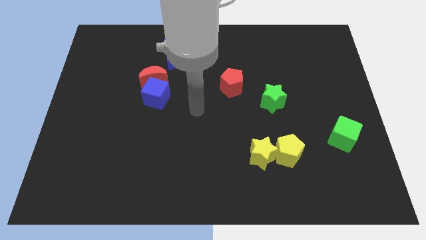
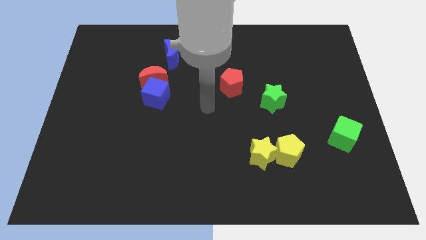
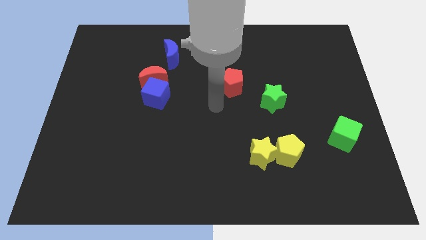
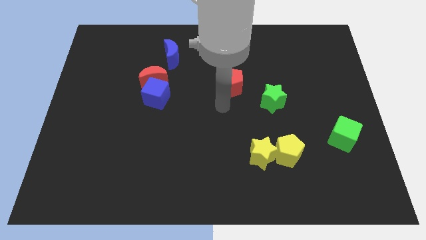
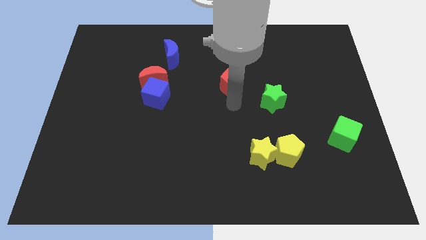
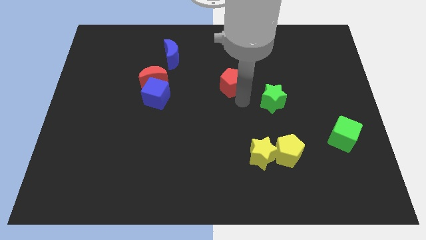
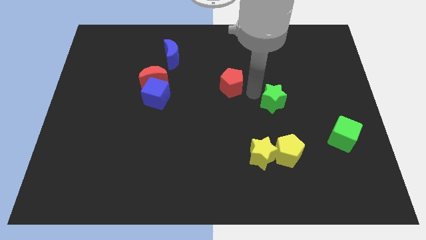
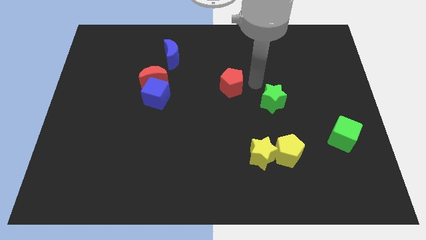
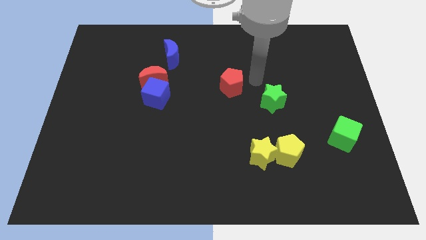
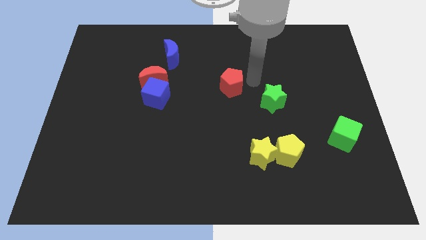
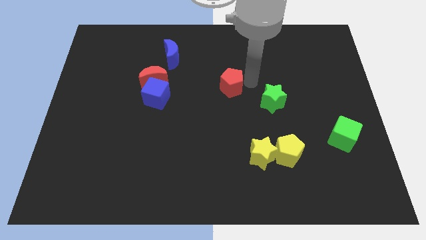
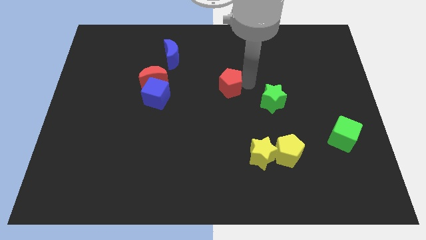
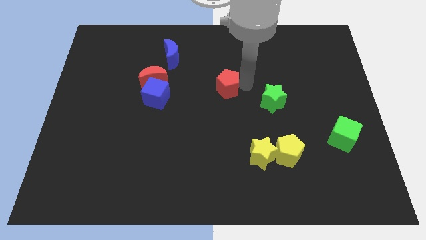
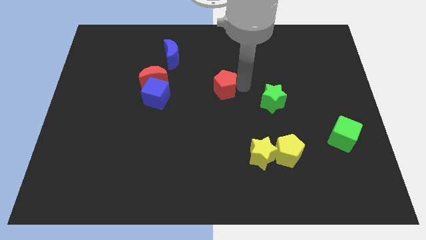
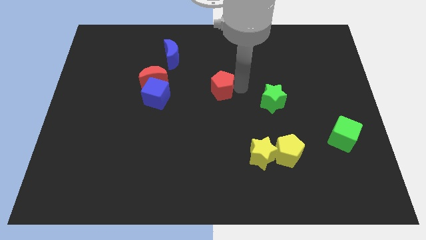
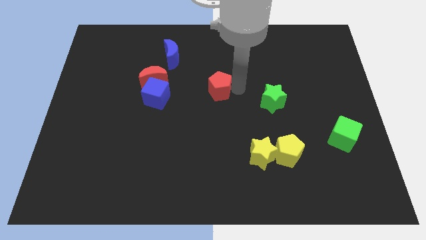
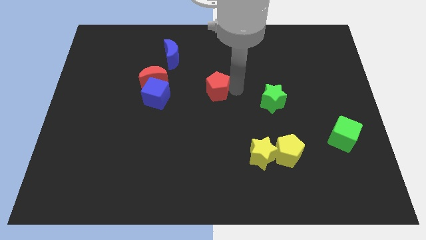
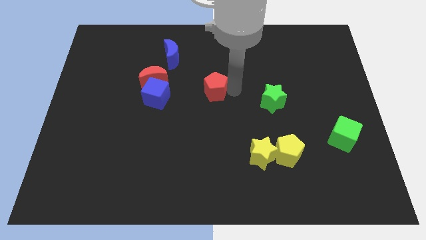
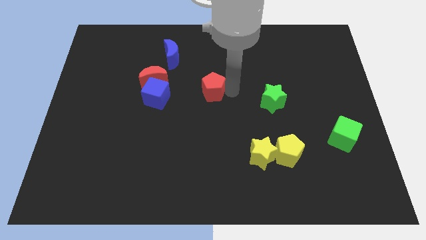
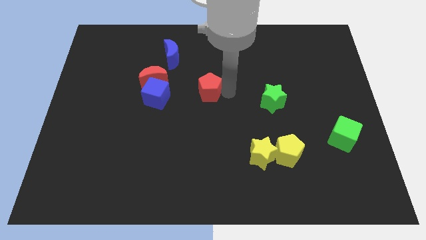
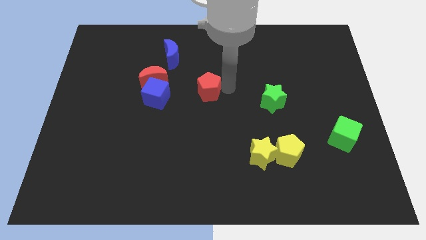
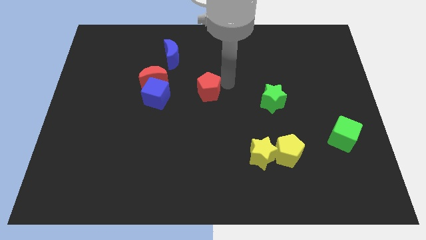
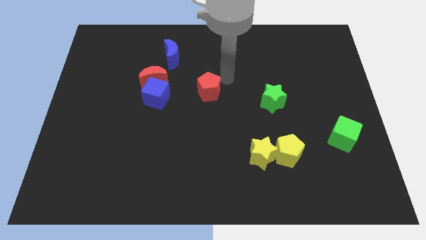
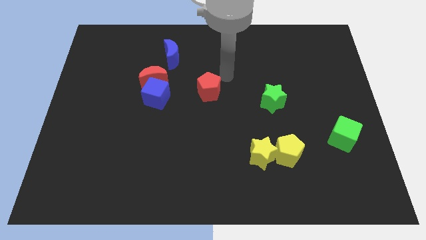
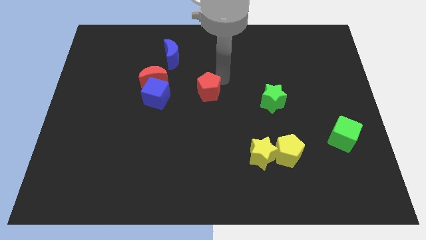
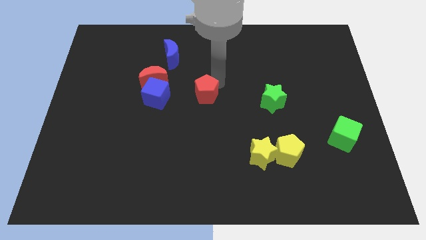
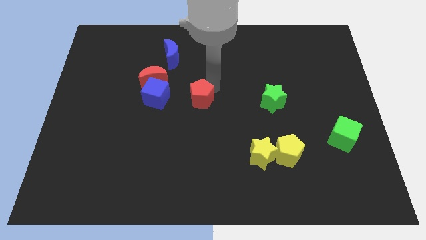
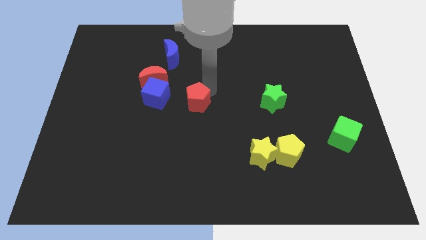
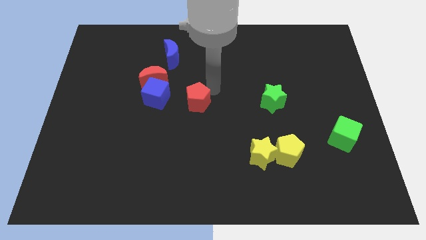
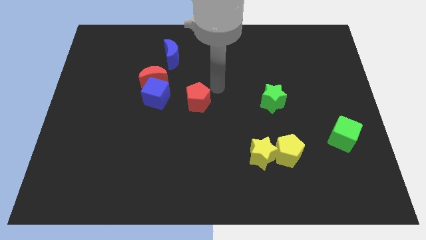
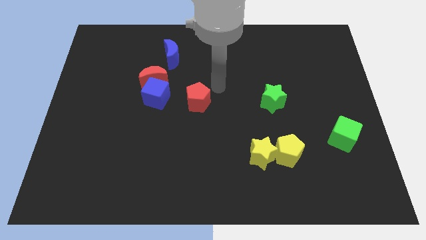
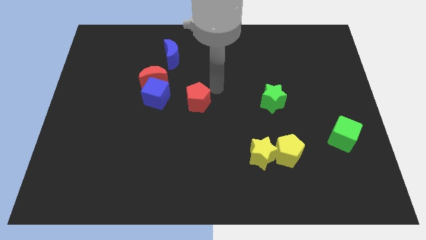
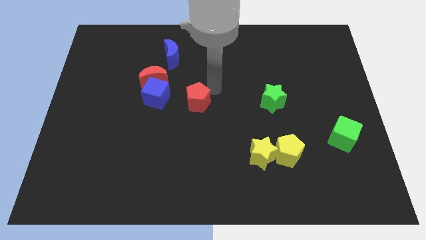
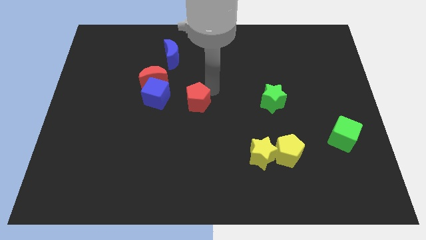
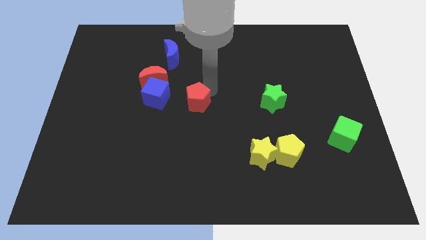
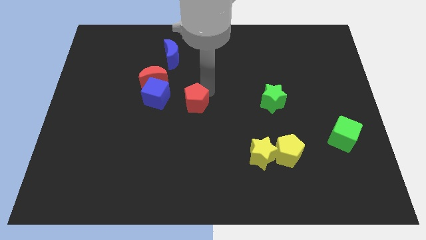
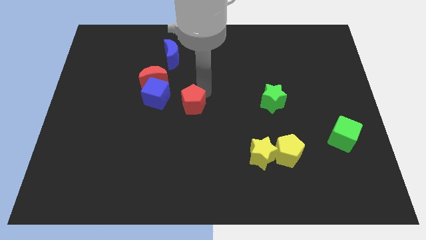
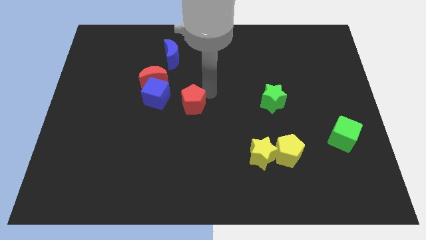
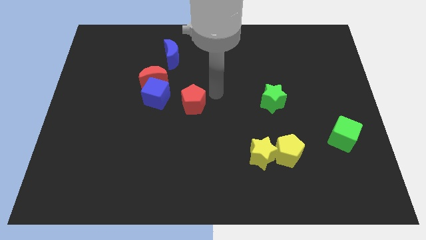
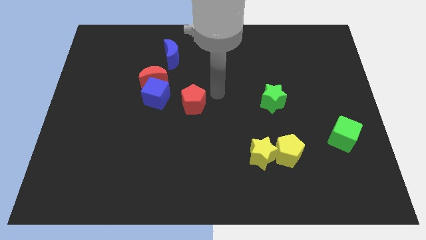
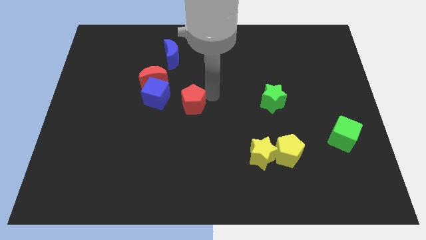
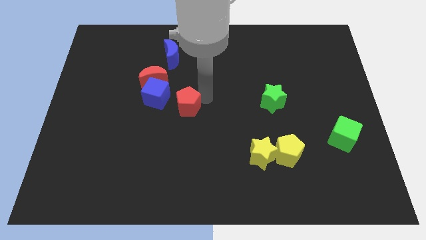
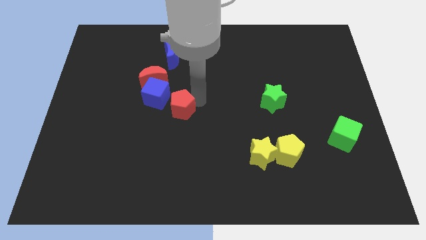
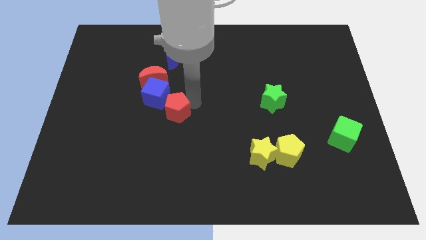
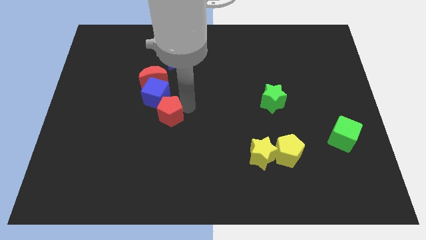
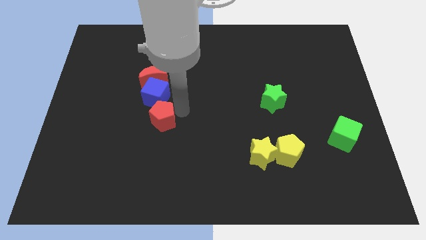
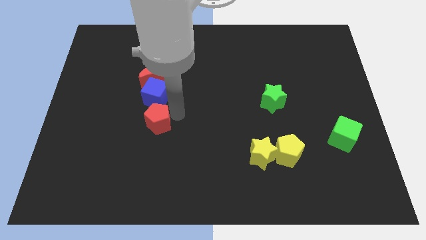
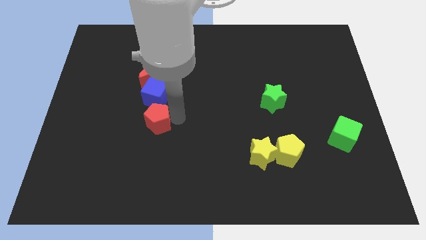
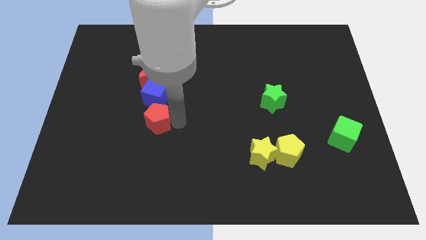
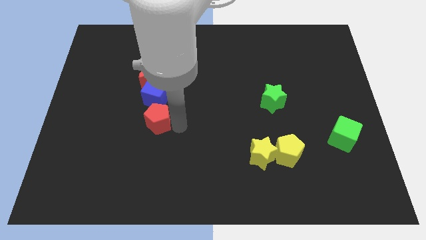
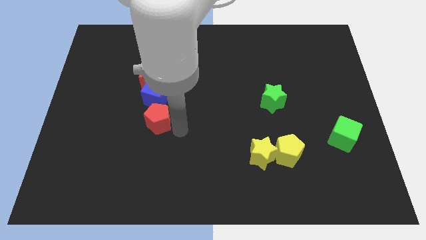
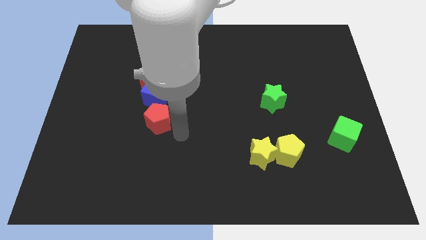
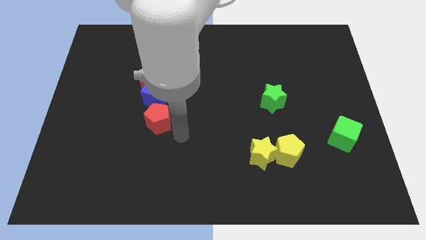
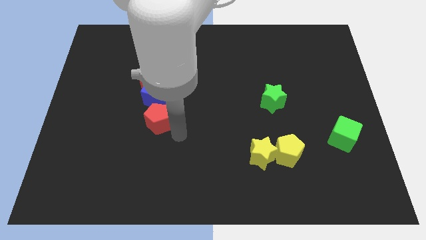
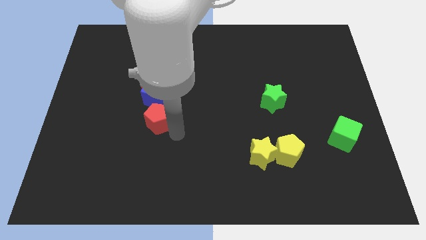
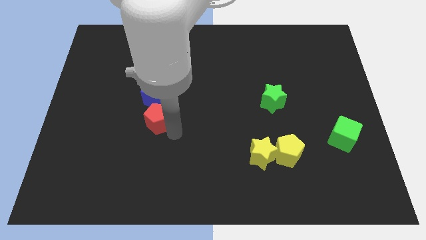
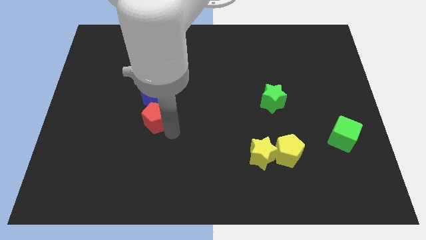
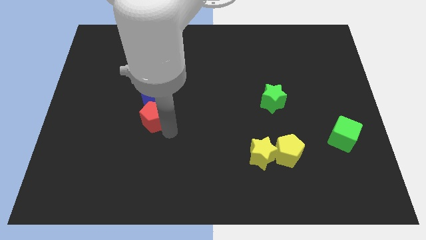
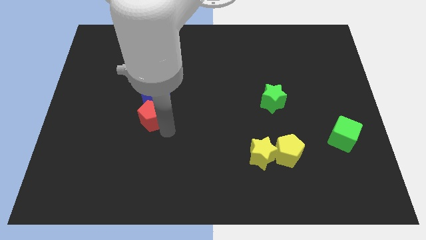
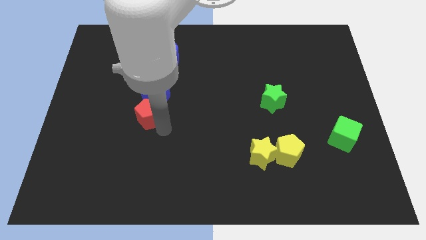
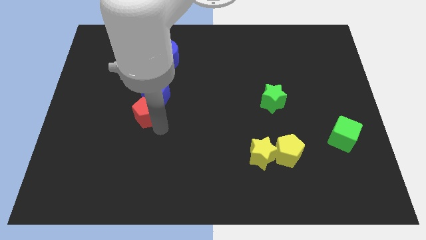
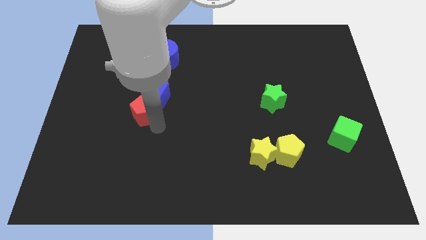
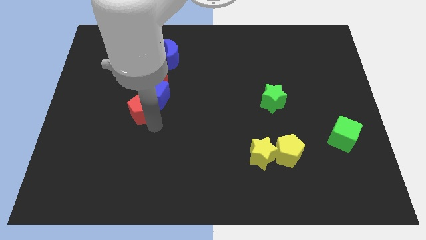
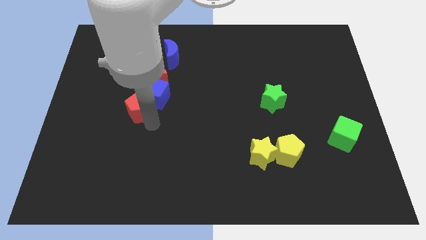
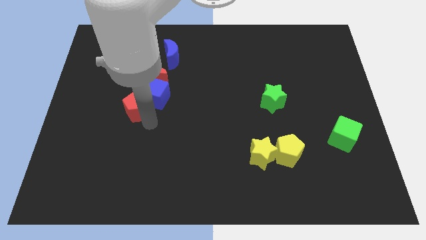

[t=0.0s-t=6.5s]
slide the red pentagon to the left

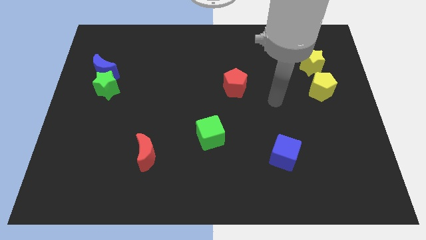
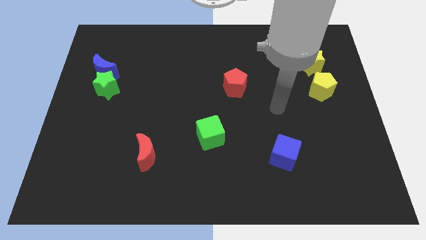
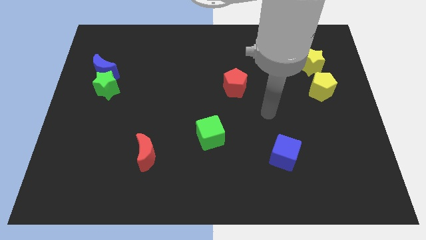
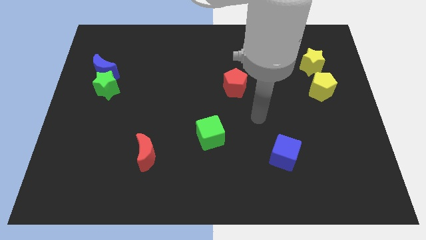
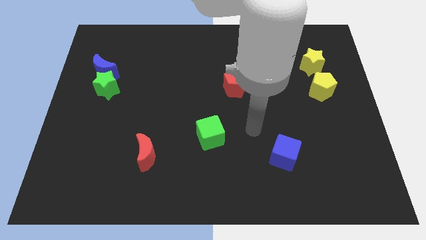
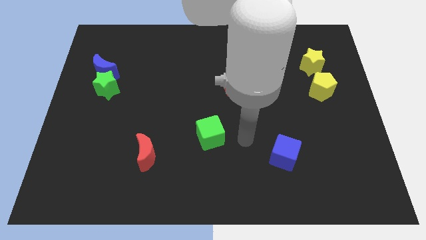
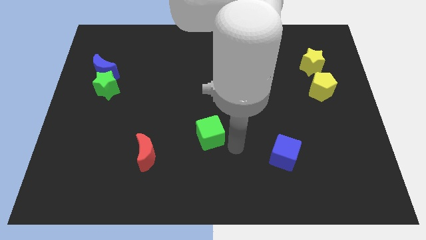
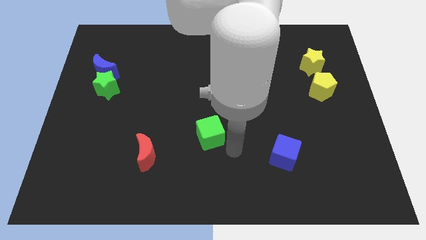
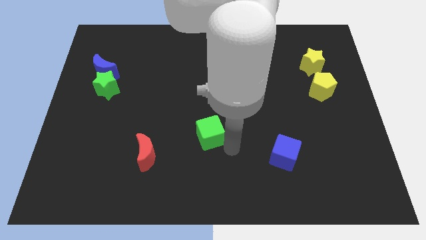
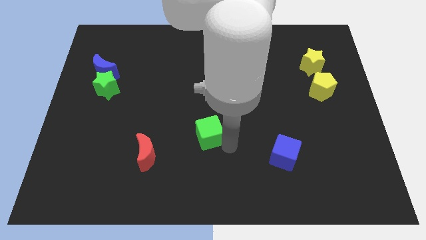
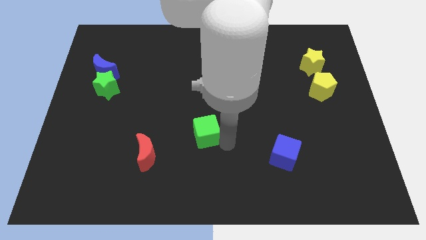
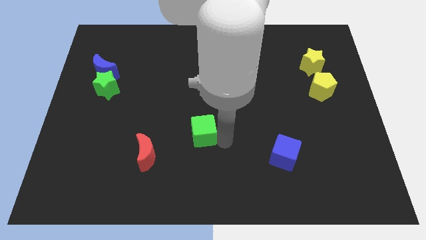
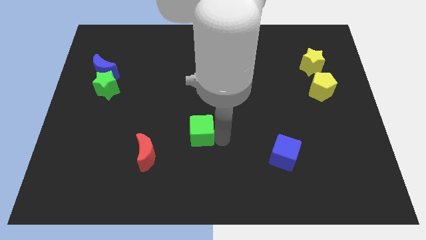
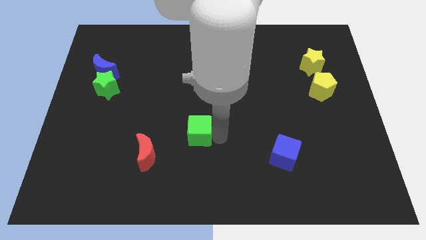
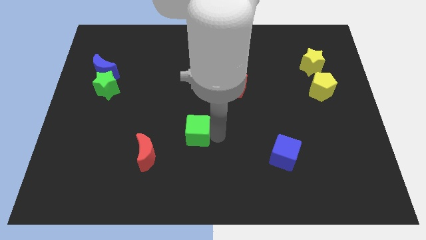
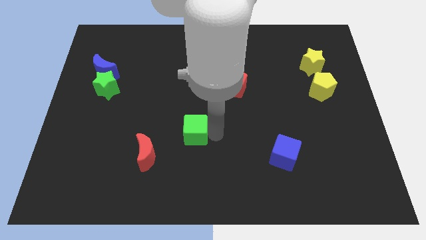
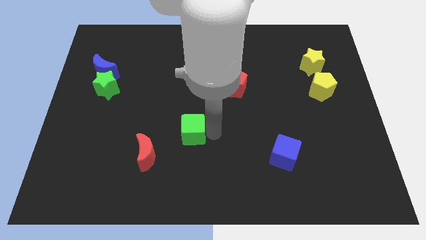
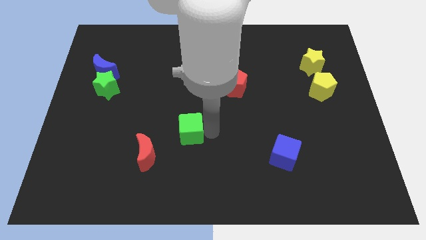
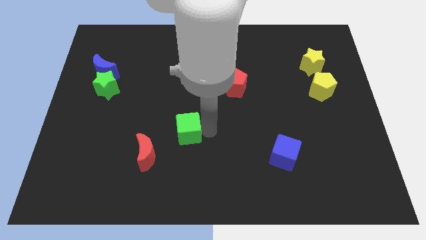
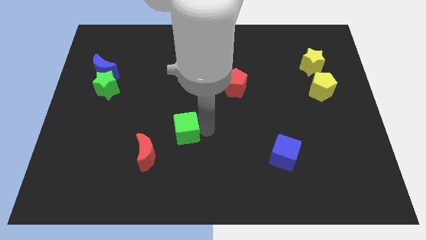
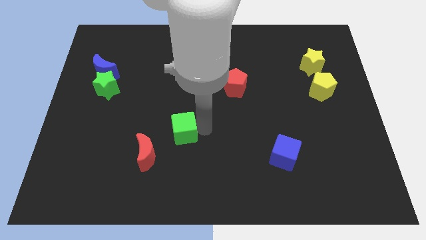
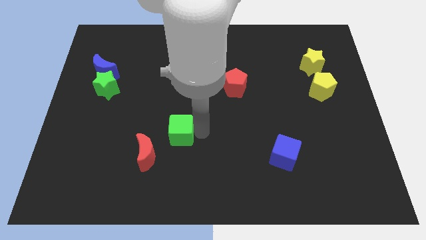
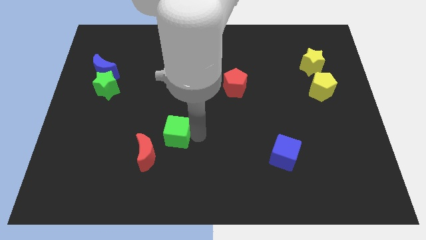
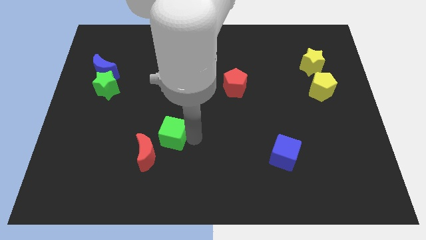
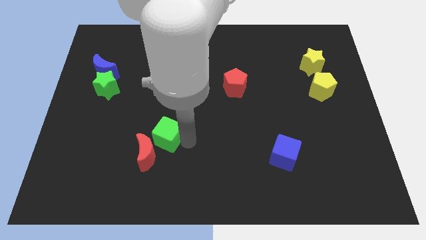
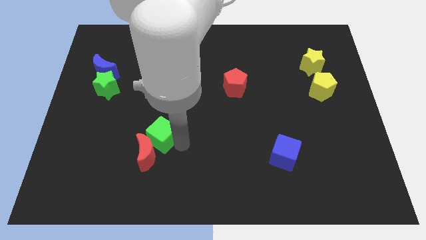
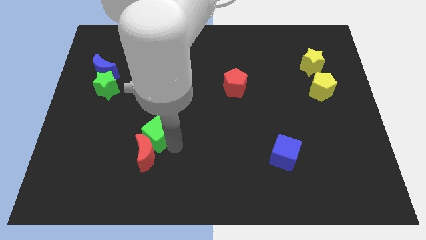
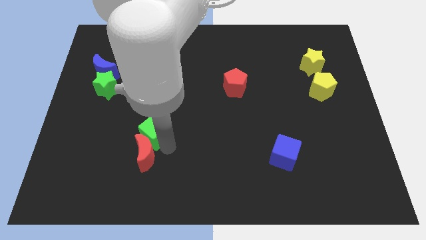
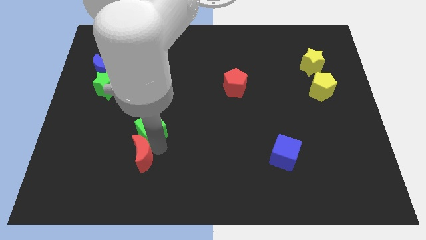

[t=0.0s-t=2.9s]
move the green cube upwards and left diagonally a bit
